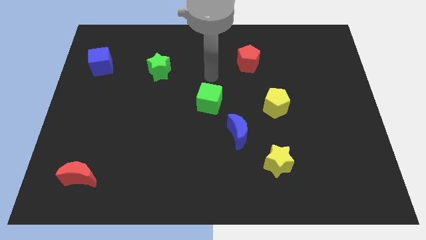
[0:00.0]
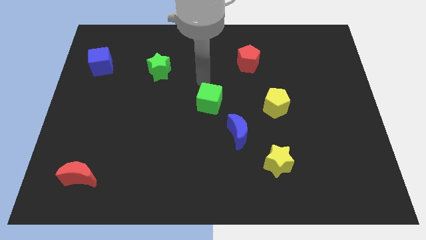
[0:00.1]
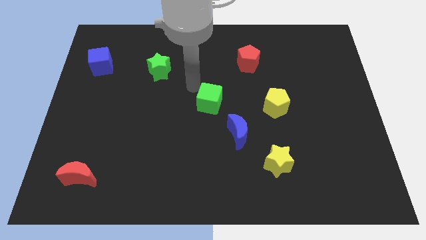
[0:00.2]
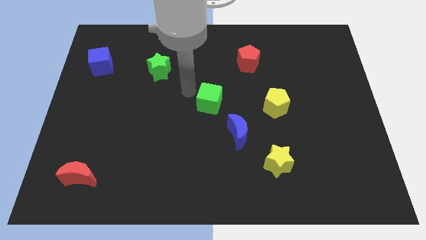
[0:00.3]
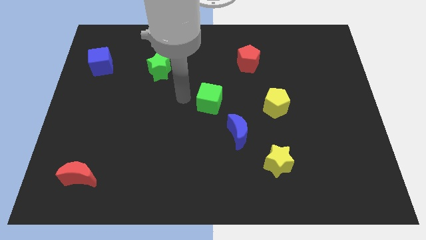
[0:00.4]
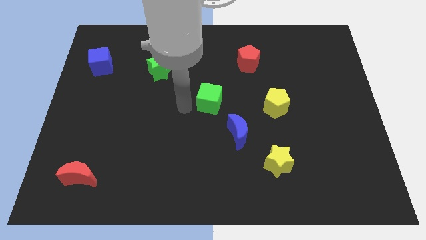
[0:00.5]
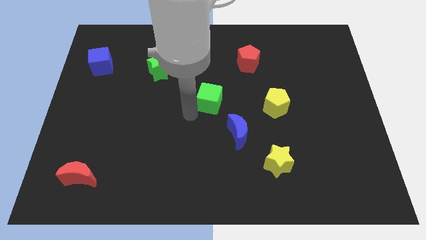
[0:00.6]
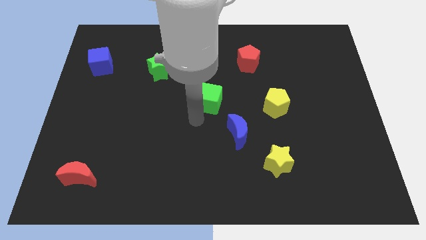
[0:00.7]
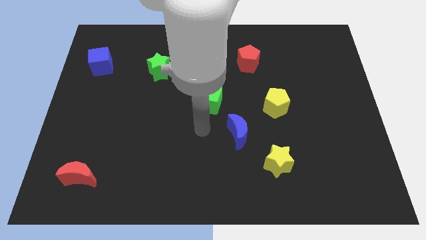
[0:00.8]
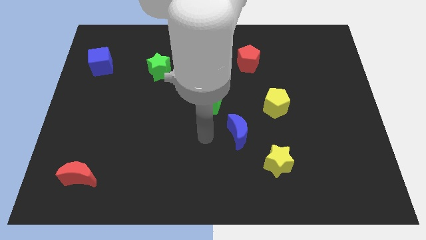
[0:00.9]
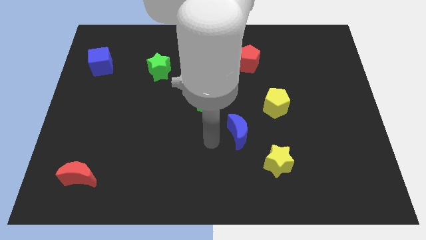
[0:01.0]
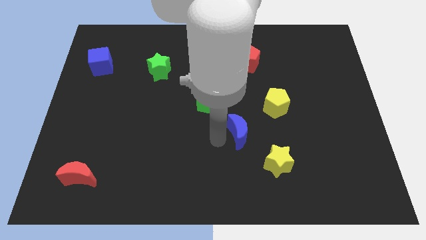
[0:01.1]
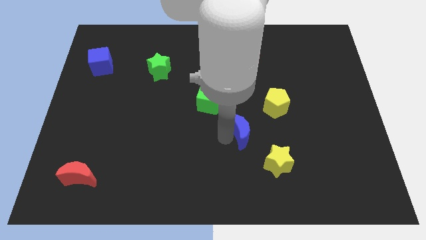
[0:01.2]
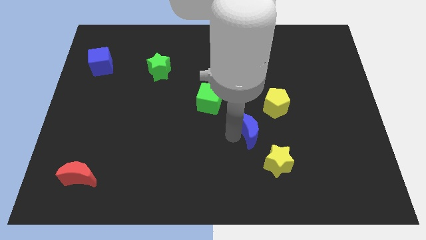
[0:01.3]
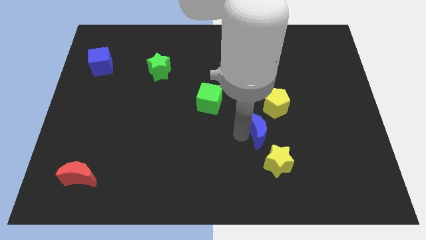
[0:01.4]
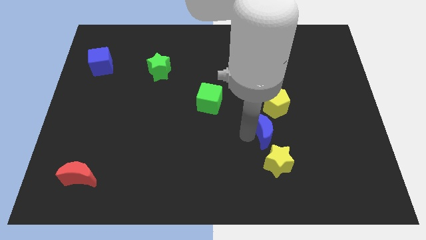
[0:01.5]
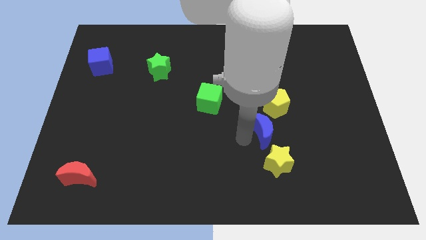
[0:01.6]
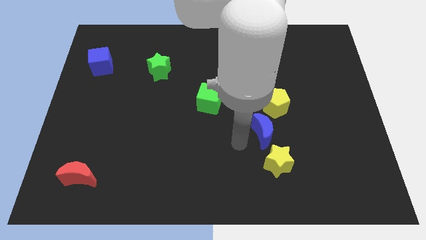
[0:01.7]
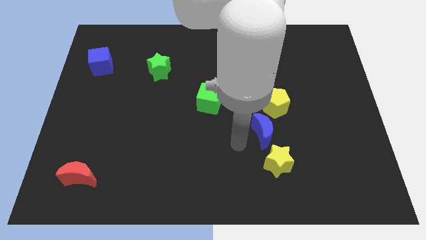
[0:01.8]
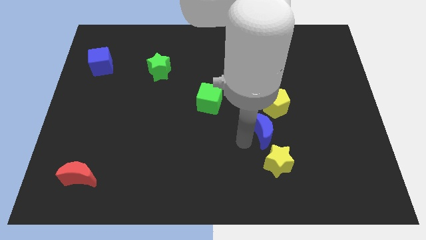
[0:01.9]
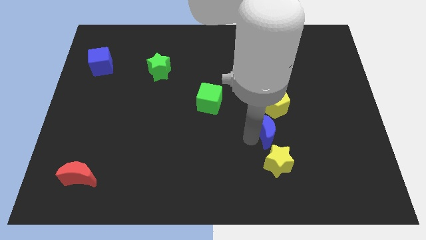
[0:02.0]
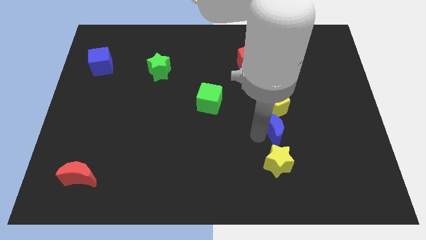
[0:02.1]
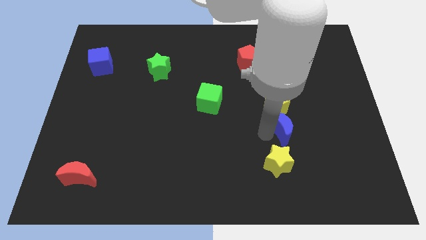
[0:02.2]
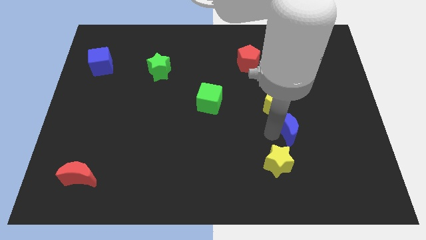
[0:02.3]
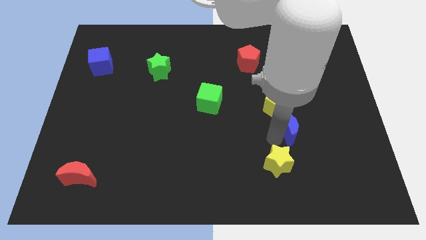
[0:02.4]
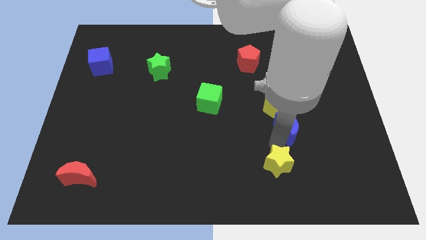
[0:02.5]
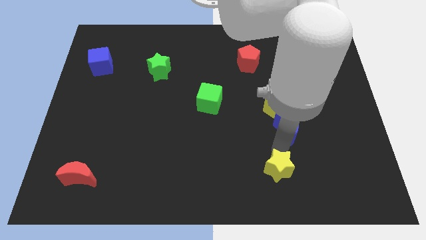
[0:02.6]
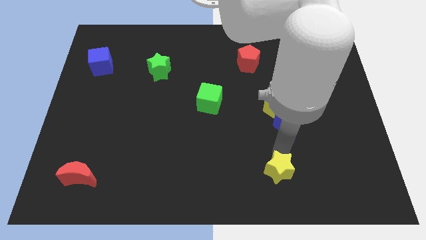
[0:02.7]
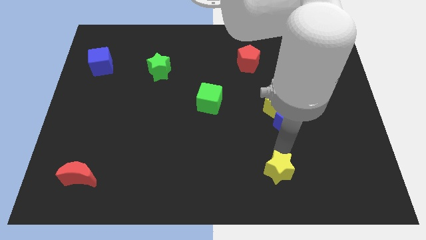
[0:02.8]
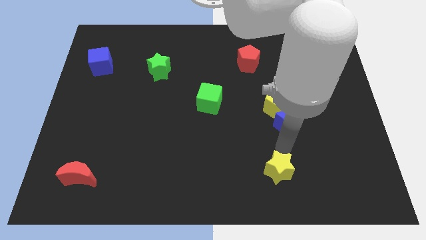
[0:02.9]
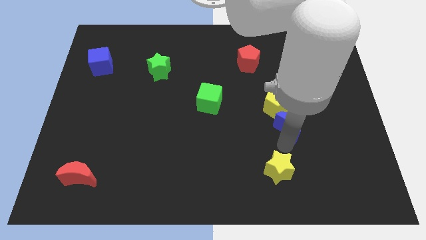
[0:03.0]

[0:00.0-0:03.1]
slightly push the blue moon upwards and then to the right

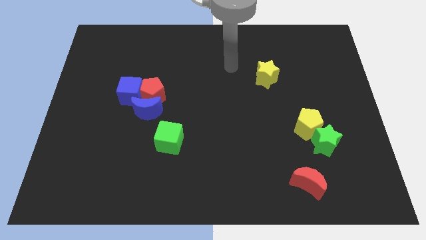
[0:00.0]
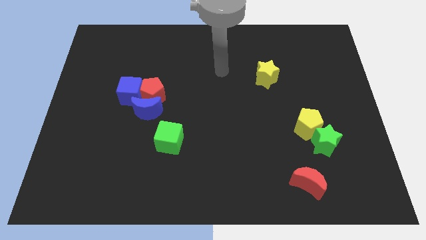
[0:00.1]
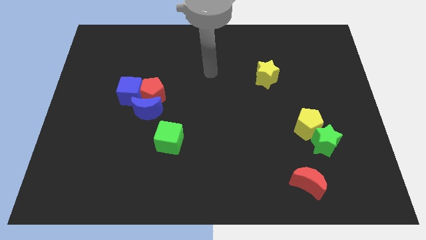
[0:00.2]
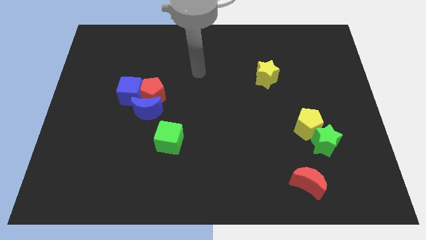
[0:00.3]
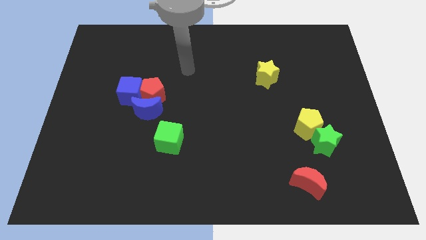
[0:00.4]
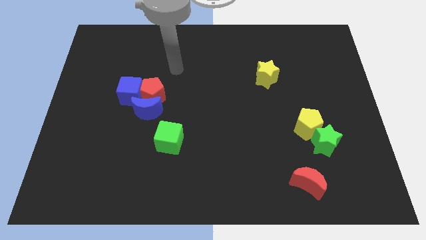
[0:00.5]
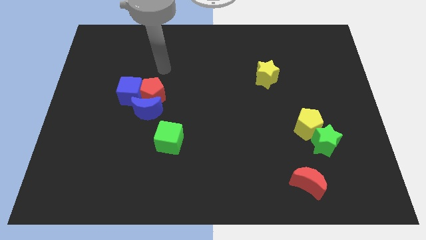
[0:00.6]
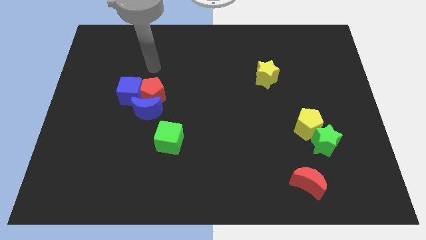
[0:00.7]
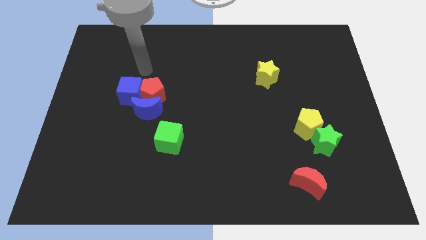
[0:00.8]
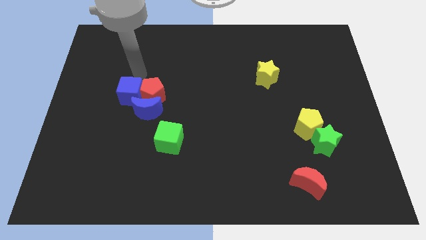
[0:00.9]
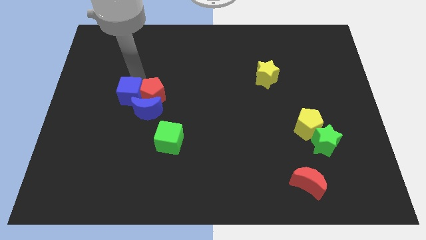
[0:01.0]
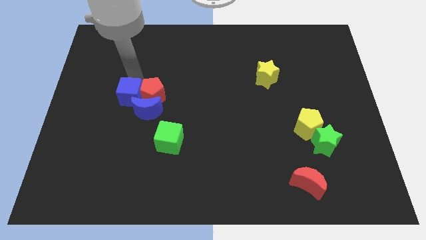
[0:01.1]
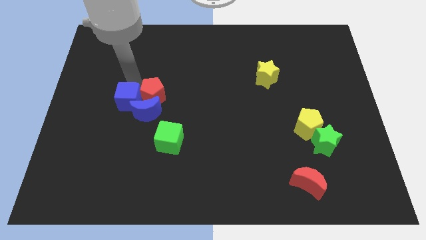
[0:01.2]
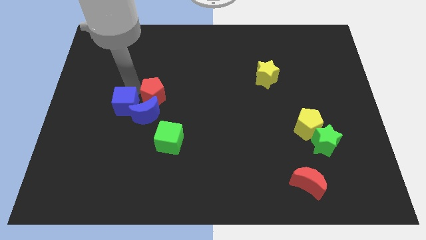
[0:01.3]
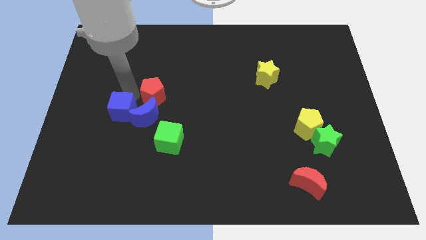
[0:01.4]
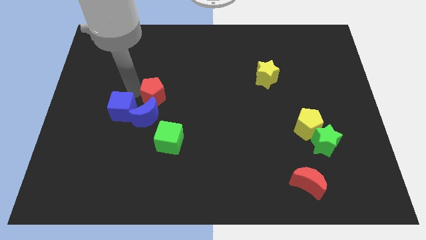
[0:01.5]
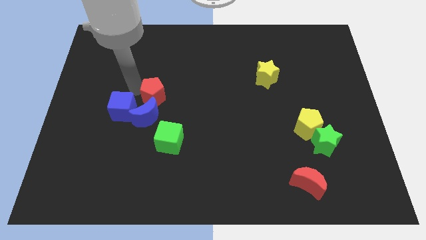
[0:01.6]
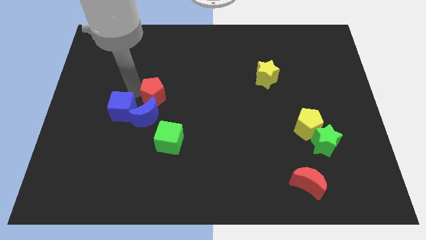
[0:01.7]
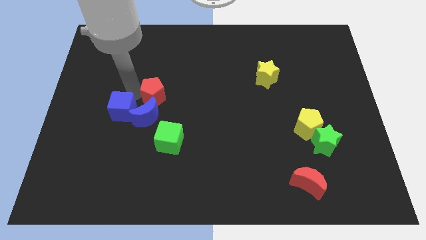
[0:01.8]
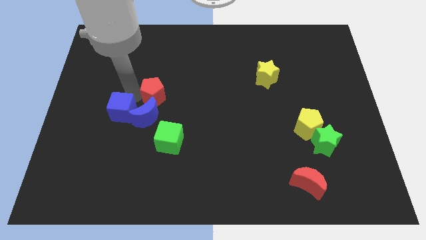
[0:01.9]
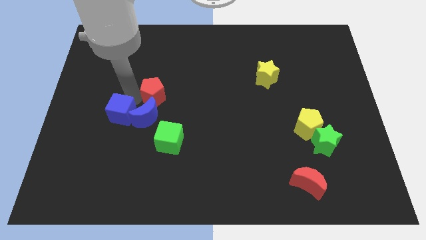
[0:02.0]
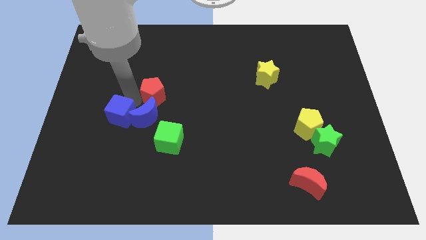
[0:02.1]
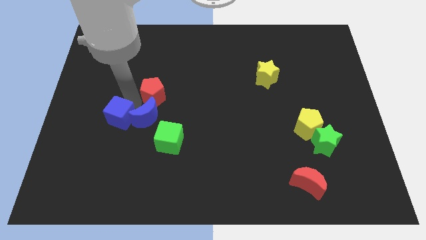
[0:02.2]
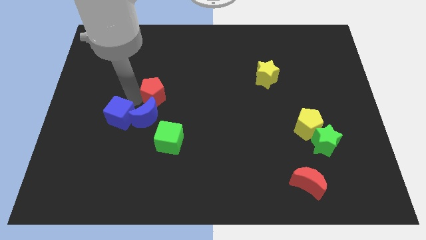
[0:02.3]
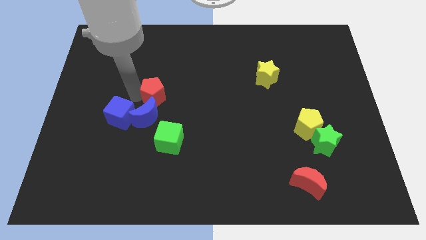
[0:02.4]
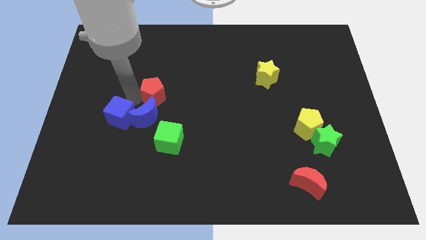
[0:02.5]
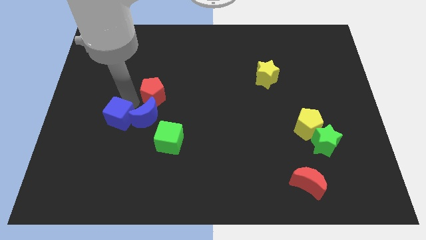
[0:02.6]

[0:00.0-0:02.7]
slide the blue cube downwards a little bit

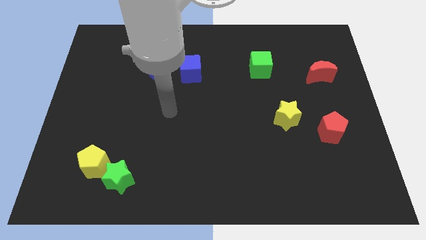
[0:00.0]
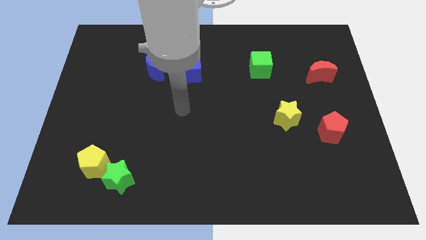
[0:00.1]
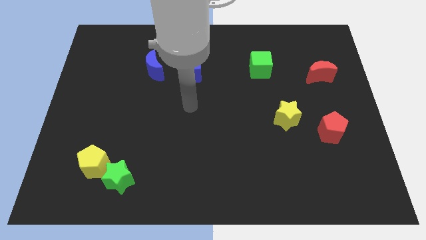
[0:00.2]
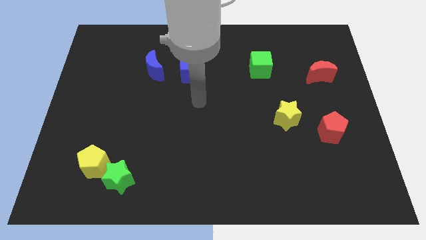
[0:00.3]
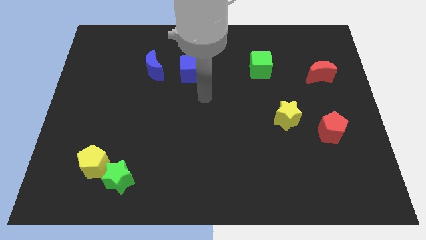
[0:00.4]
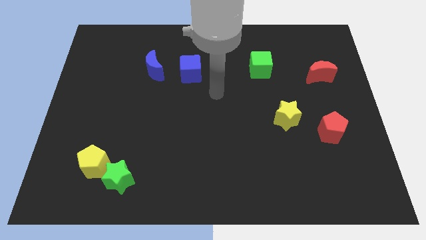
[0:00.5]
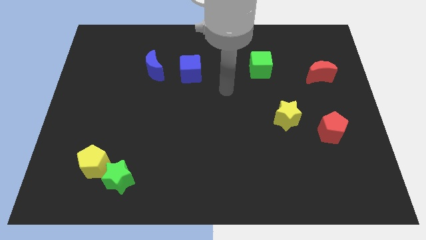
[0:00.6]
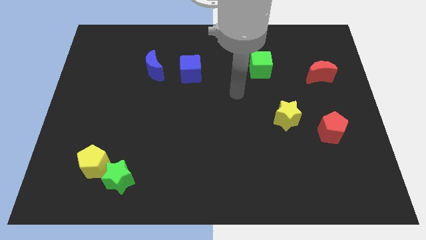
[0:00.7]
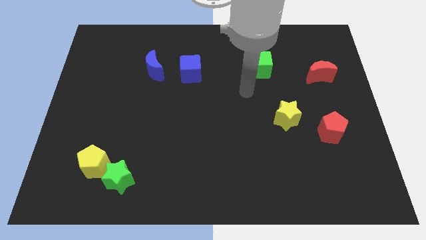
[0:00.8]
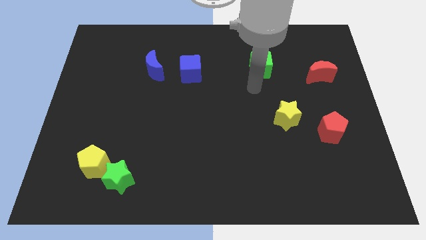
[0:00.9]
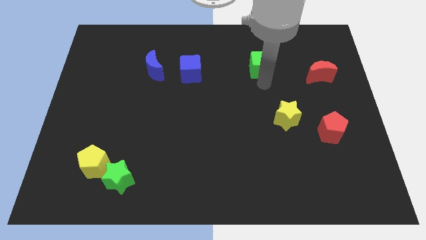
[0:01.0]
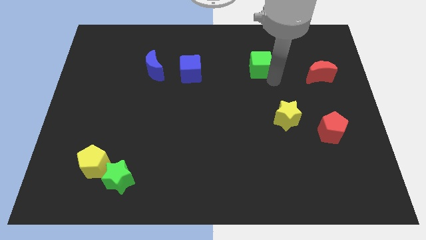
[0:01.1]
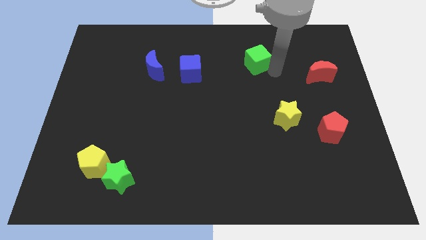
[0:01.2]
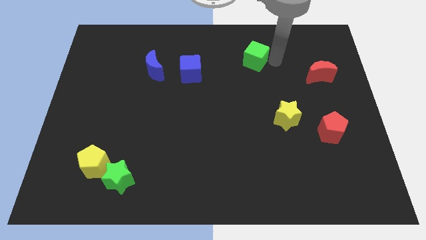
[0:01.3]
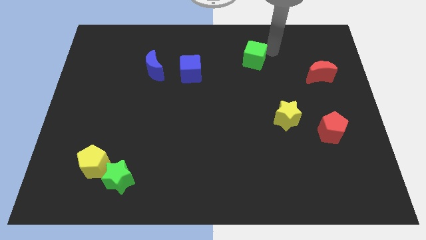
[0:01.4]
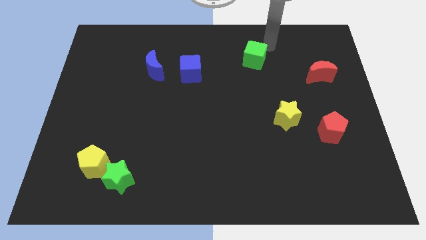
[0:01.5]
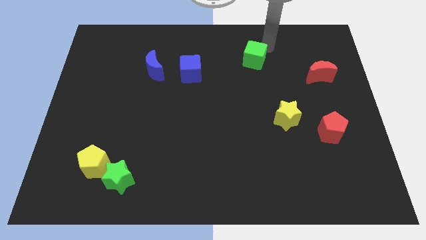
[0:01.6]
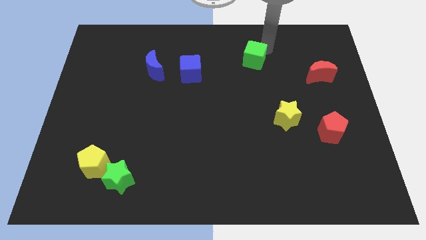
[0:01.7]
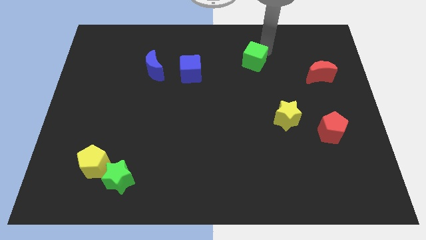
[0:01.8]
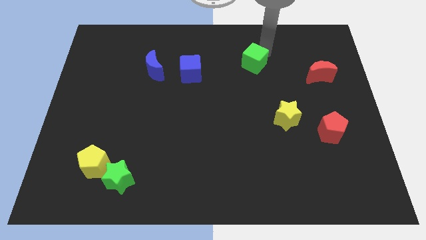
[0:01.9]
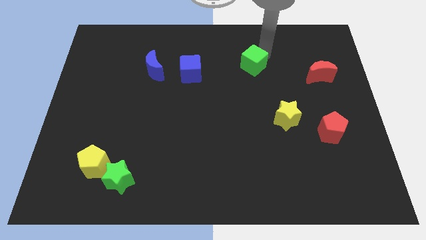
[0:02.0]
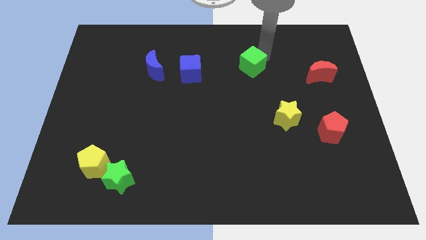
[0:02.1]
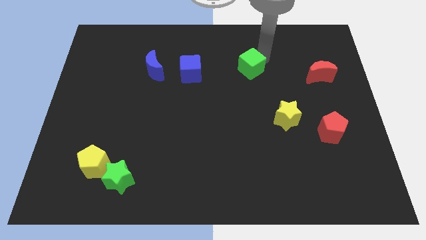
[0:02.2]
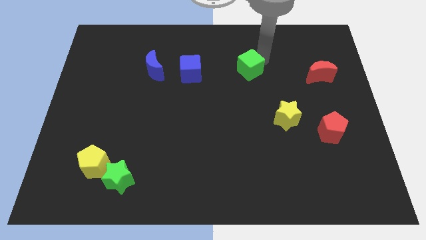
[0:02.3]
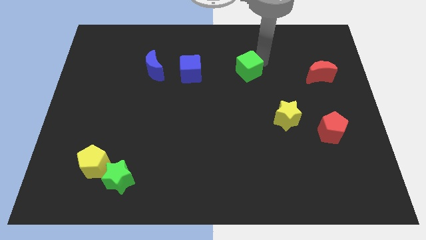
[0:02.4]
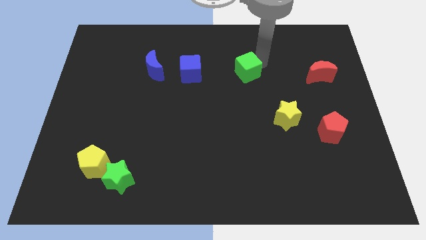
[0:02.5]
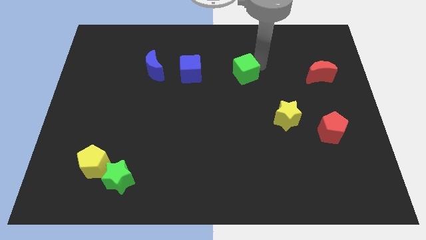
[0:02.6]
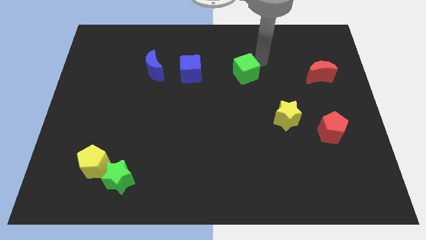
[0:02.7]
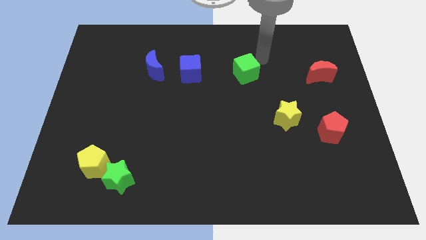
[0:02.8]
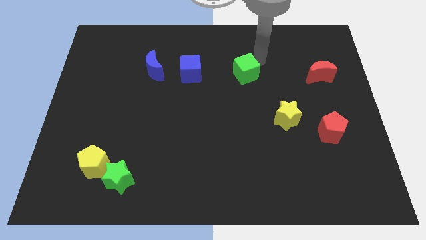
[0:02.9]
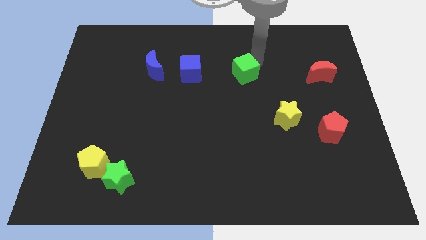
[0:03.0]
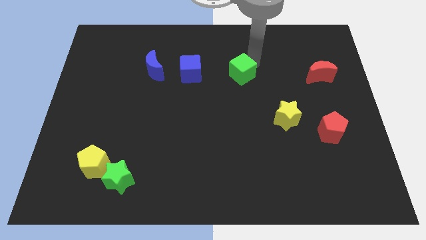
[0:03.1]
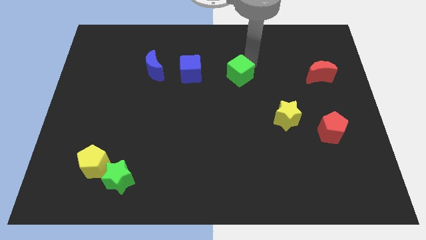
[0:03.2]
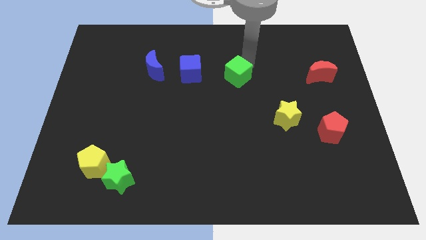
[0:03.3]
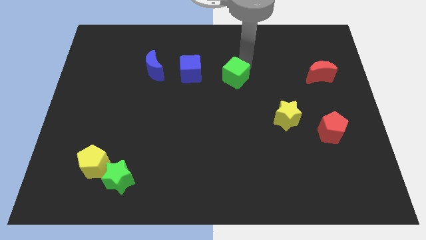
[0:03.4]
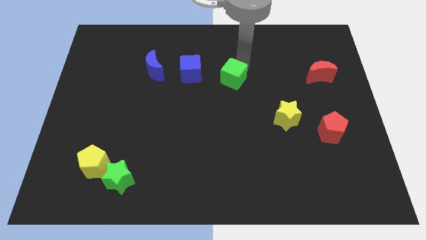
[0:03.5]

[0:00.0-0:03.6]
slightly slide the green cube down and left diagonally
